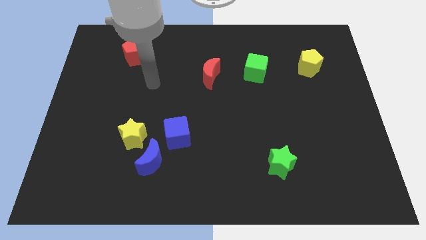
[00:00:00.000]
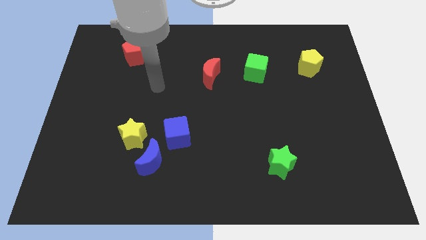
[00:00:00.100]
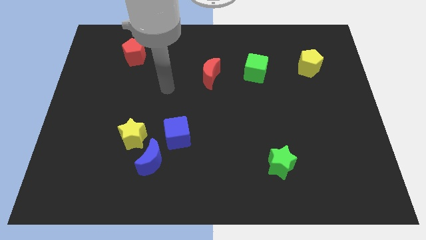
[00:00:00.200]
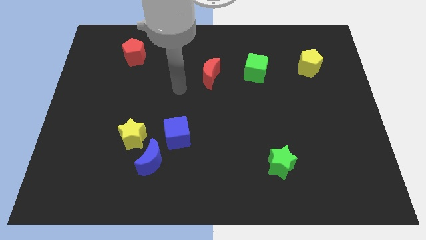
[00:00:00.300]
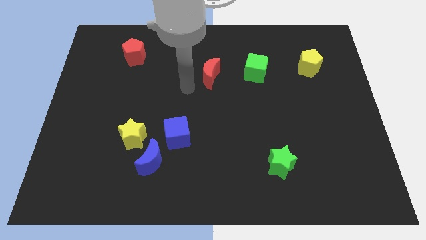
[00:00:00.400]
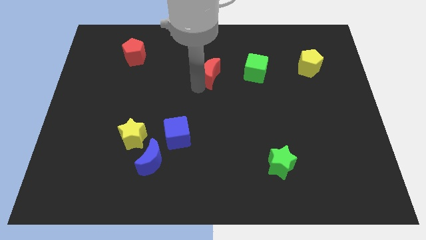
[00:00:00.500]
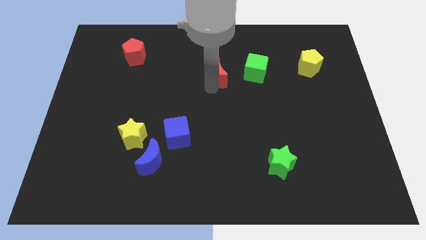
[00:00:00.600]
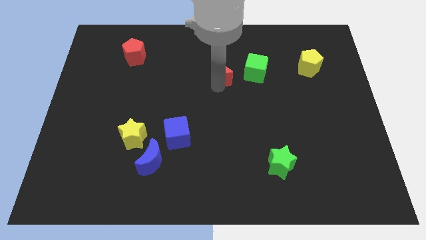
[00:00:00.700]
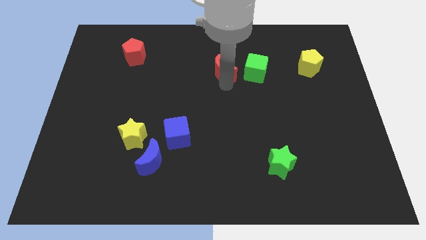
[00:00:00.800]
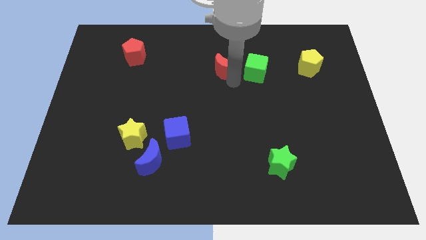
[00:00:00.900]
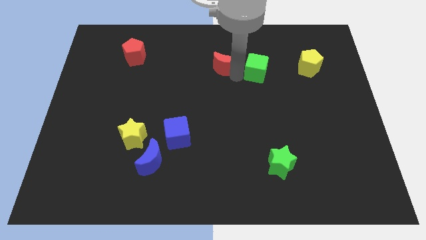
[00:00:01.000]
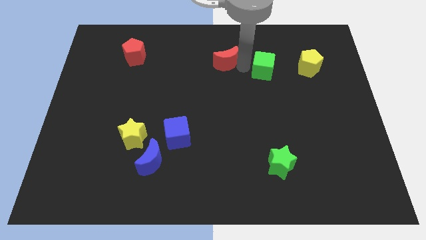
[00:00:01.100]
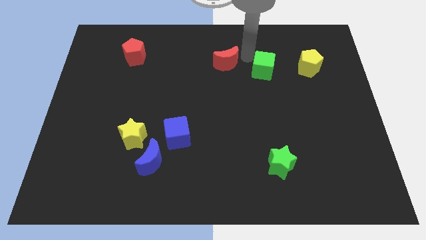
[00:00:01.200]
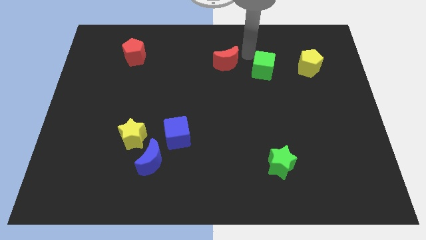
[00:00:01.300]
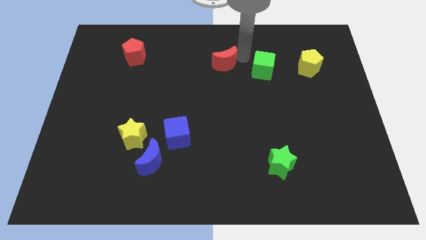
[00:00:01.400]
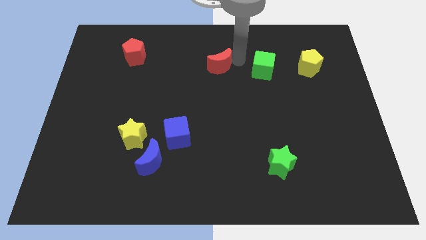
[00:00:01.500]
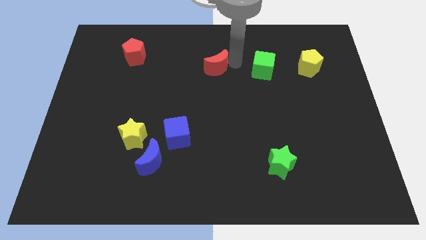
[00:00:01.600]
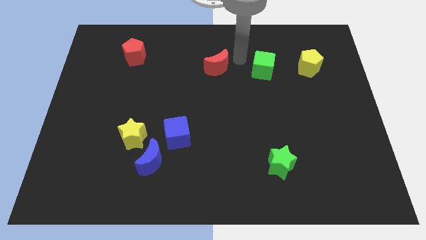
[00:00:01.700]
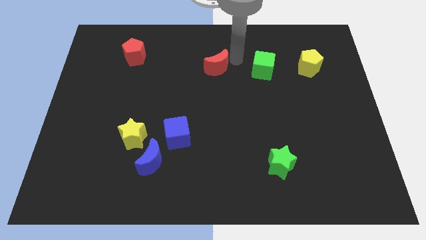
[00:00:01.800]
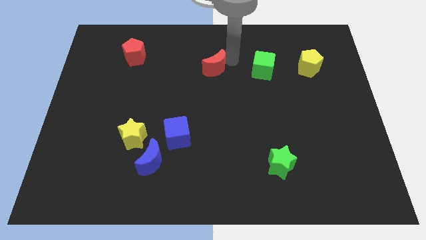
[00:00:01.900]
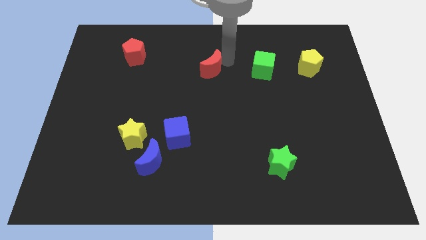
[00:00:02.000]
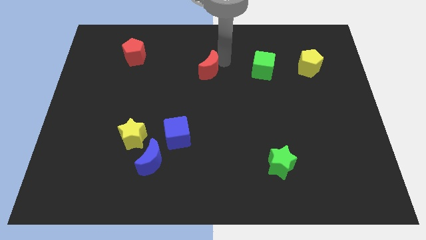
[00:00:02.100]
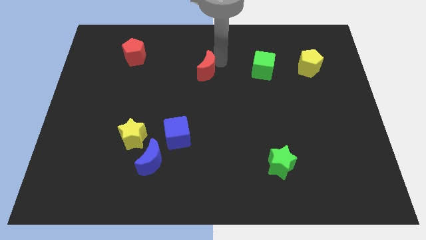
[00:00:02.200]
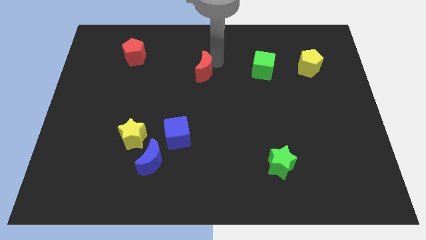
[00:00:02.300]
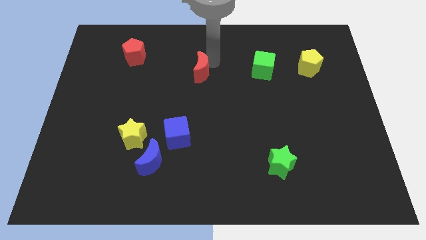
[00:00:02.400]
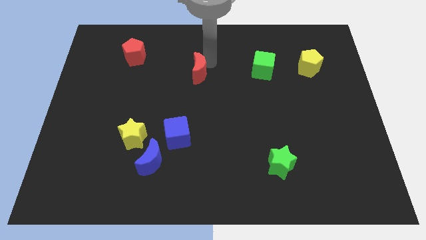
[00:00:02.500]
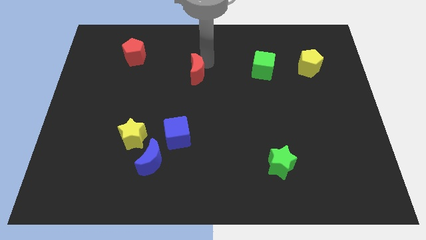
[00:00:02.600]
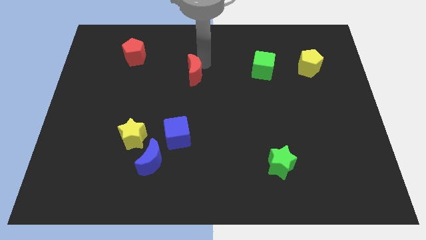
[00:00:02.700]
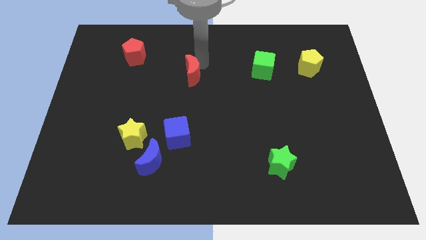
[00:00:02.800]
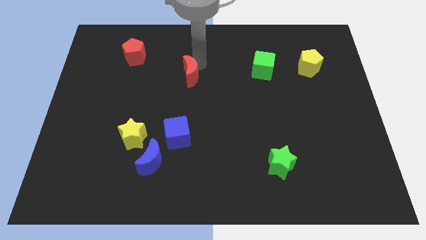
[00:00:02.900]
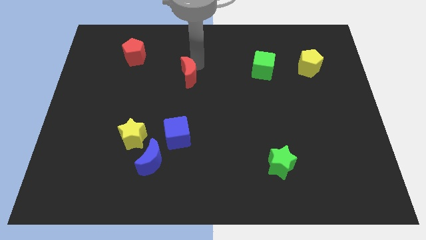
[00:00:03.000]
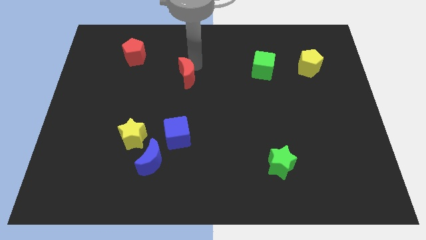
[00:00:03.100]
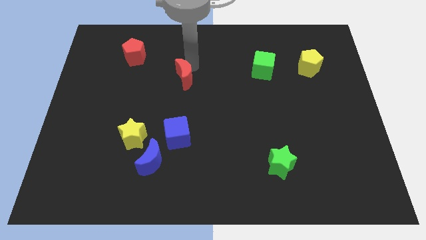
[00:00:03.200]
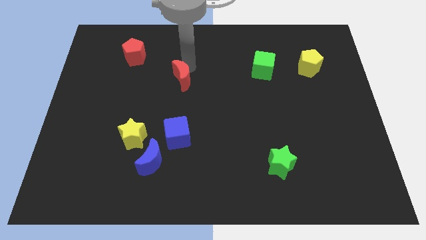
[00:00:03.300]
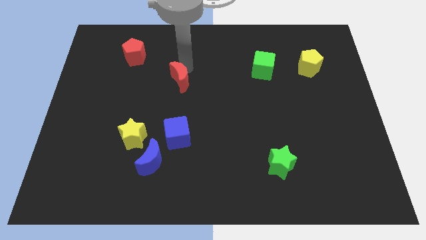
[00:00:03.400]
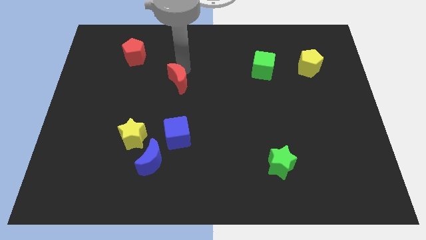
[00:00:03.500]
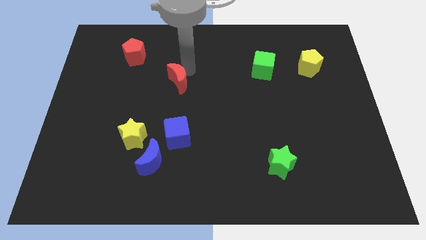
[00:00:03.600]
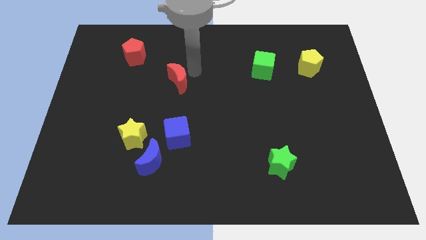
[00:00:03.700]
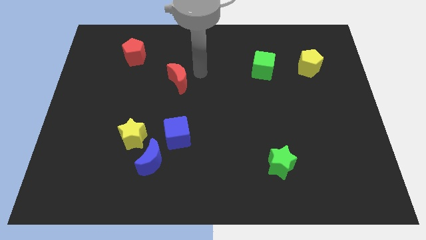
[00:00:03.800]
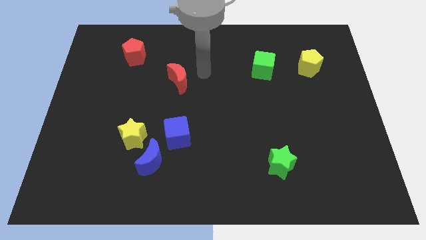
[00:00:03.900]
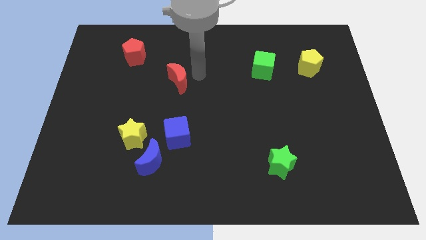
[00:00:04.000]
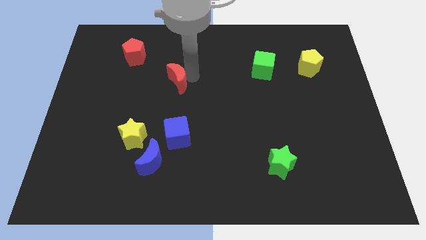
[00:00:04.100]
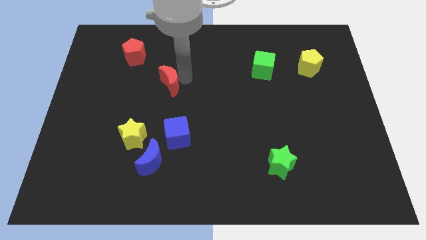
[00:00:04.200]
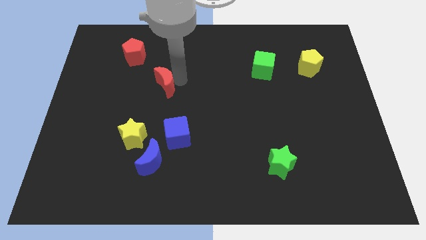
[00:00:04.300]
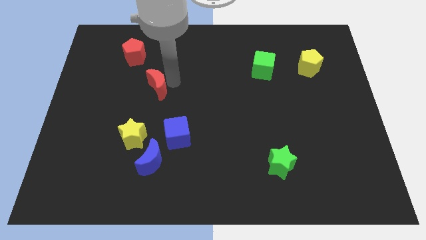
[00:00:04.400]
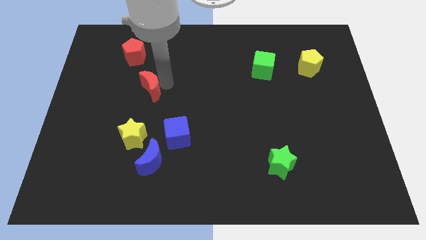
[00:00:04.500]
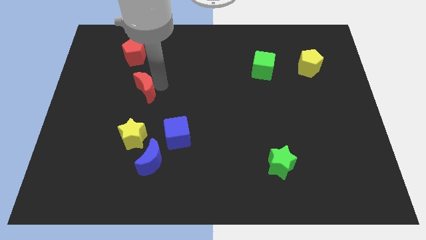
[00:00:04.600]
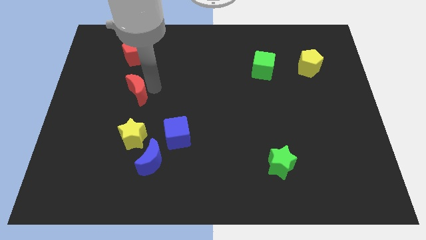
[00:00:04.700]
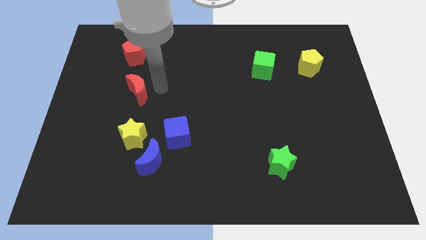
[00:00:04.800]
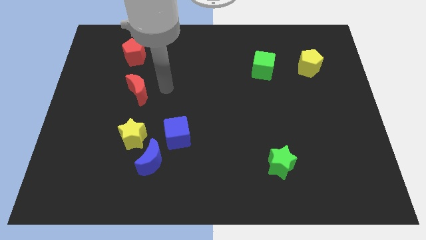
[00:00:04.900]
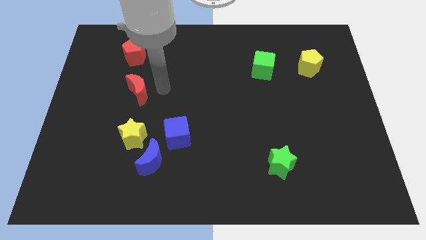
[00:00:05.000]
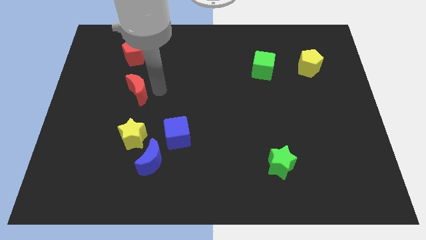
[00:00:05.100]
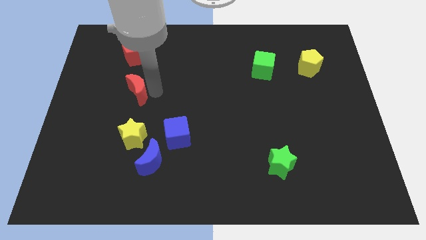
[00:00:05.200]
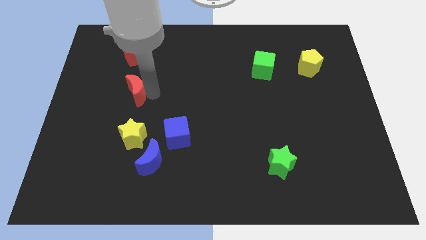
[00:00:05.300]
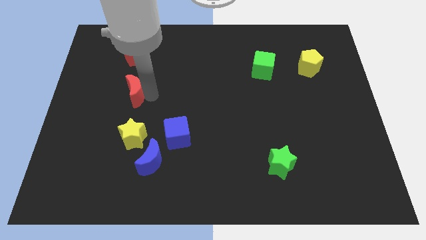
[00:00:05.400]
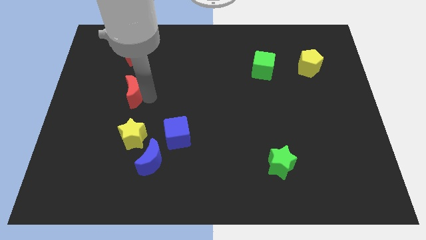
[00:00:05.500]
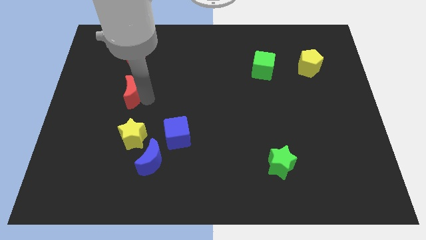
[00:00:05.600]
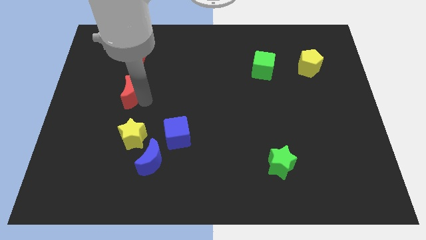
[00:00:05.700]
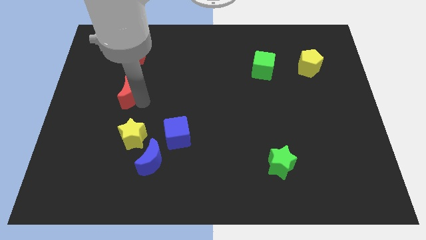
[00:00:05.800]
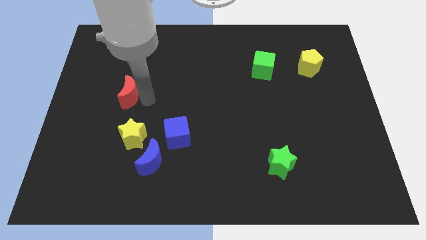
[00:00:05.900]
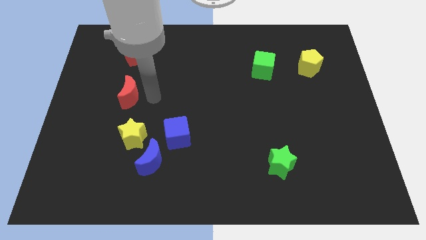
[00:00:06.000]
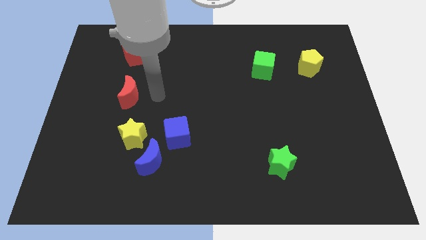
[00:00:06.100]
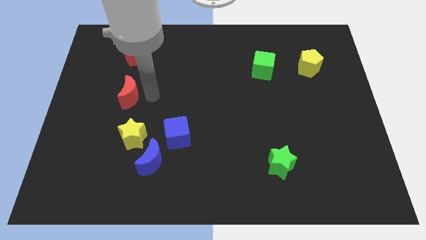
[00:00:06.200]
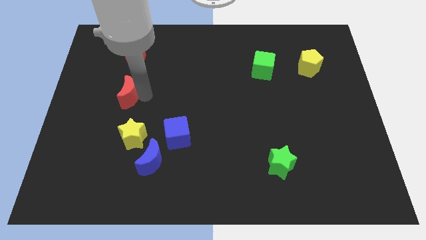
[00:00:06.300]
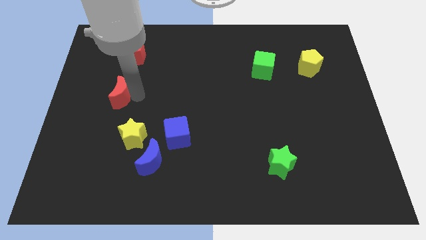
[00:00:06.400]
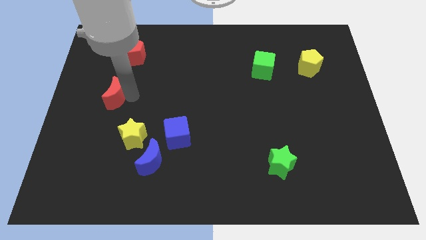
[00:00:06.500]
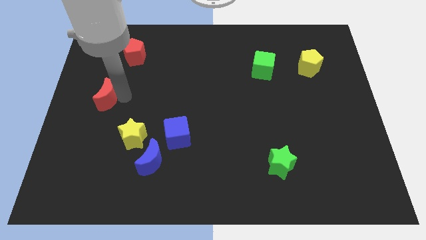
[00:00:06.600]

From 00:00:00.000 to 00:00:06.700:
push the red moon to the left side

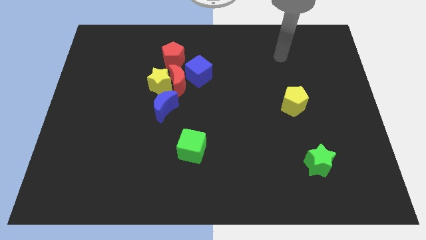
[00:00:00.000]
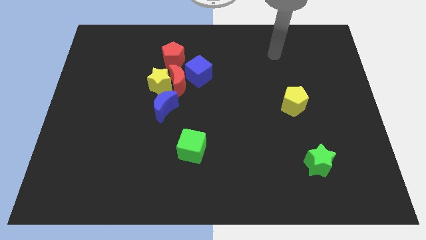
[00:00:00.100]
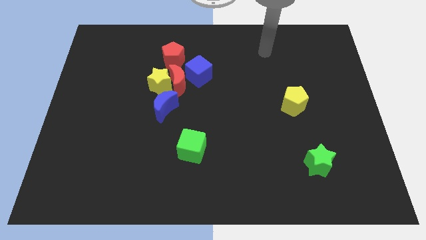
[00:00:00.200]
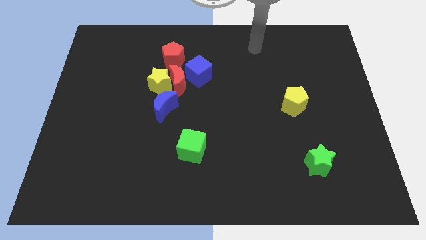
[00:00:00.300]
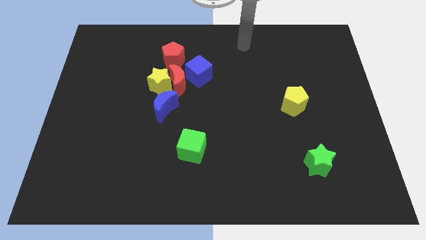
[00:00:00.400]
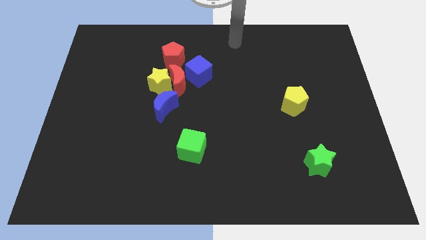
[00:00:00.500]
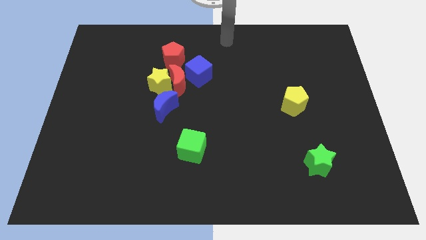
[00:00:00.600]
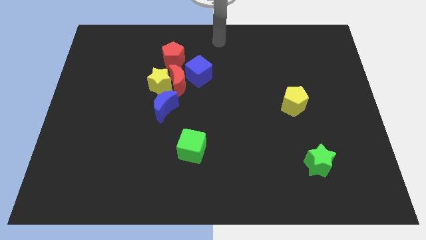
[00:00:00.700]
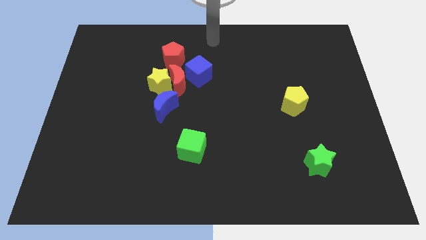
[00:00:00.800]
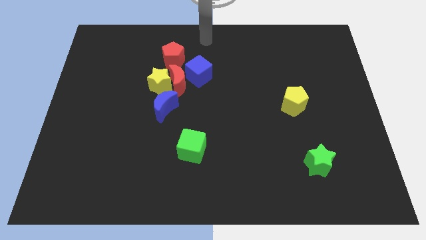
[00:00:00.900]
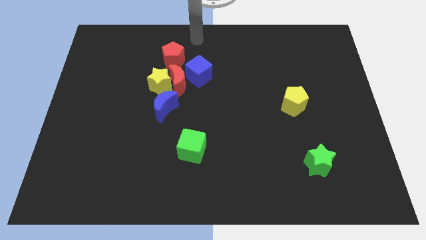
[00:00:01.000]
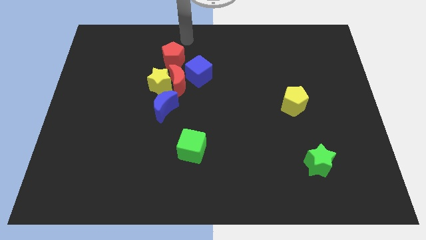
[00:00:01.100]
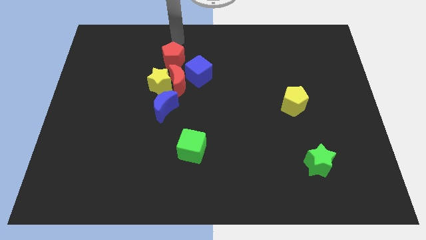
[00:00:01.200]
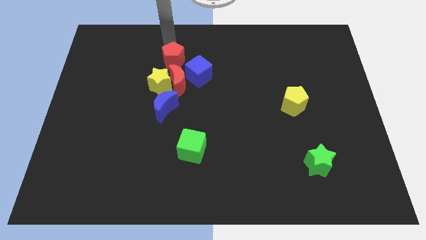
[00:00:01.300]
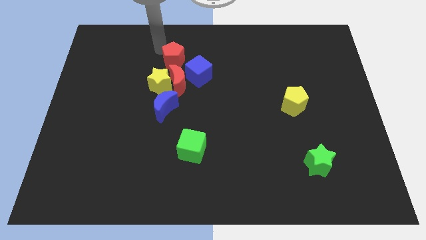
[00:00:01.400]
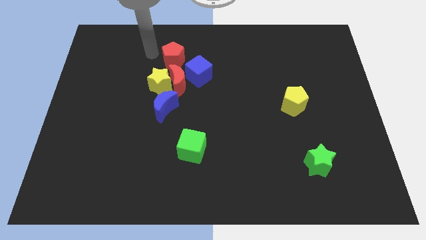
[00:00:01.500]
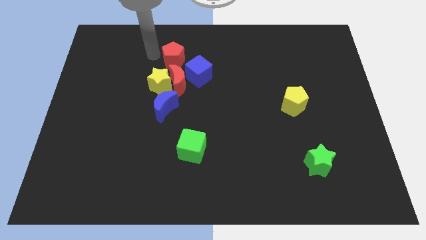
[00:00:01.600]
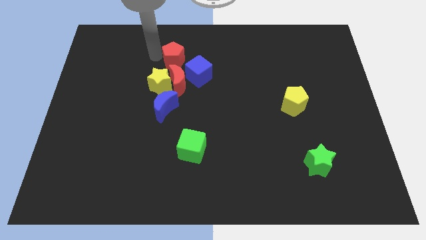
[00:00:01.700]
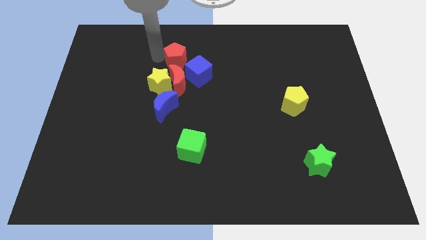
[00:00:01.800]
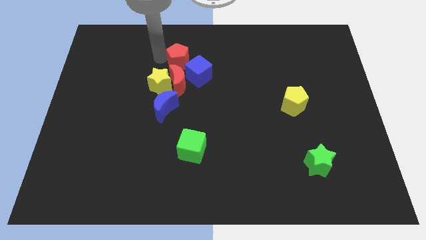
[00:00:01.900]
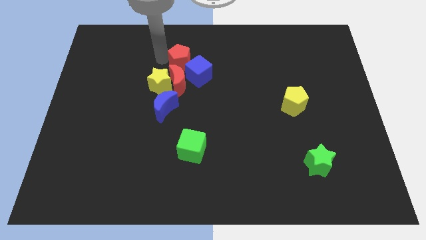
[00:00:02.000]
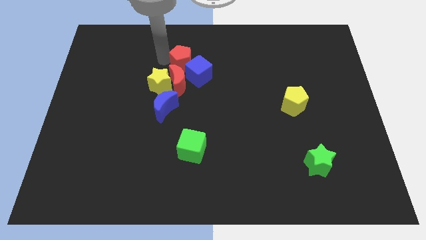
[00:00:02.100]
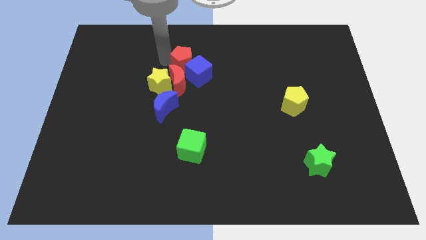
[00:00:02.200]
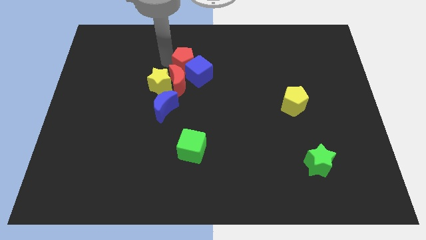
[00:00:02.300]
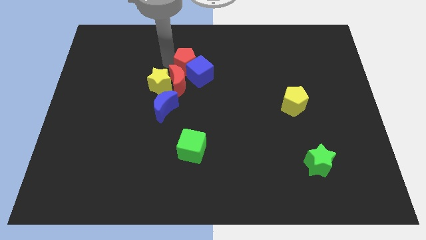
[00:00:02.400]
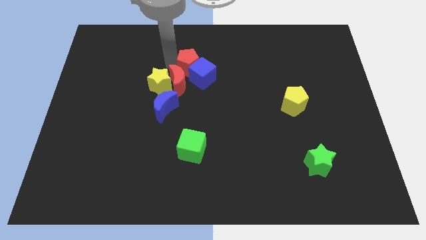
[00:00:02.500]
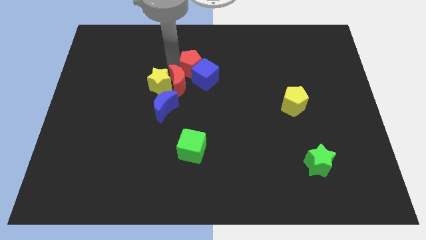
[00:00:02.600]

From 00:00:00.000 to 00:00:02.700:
put the red pentagon to the middle of the board
